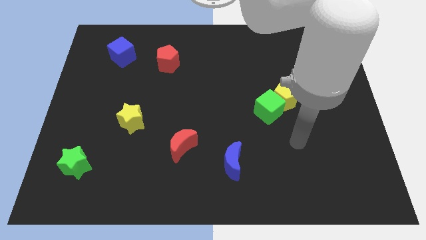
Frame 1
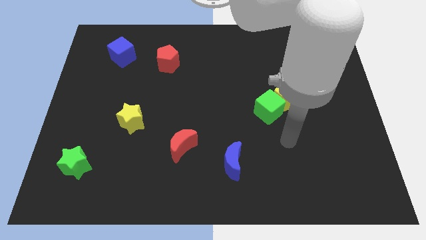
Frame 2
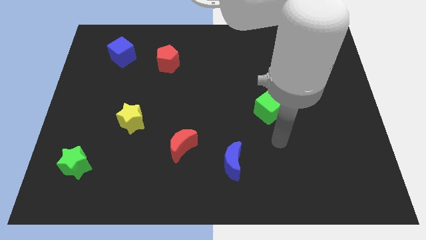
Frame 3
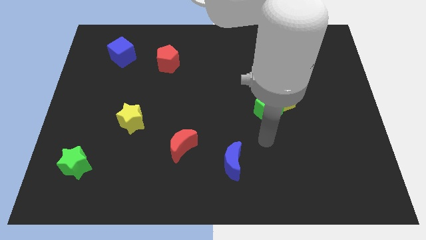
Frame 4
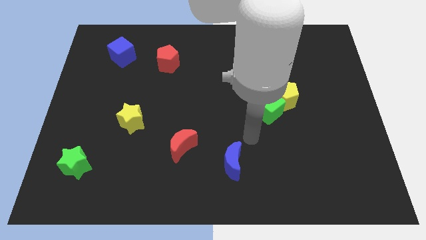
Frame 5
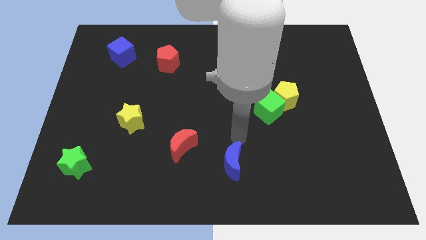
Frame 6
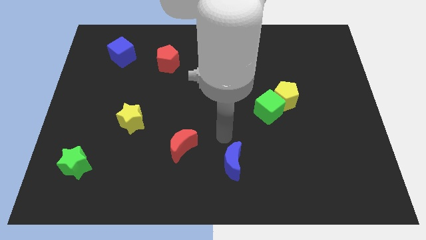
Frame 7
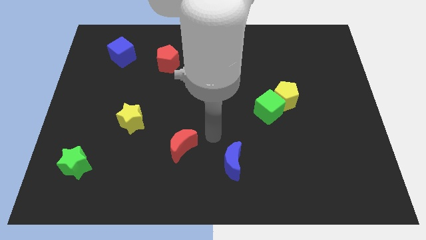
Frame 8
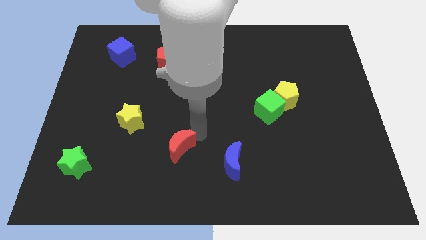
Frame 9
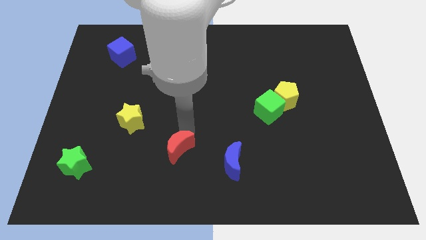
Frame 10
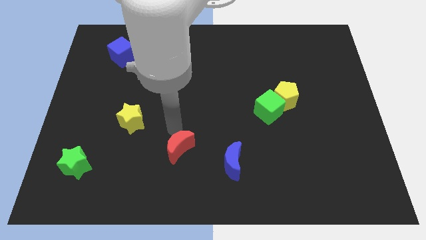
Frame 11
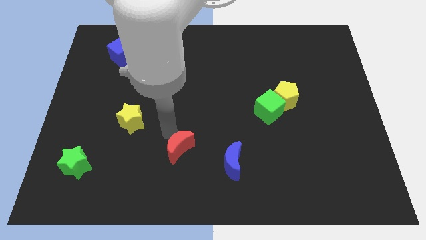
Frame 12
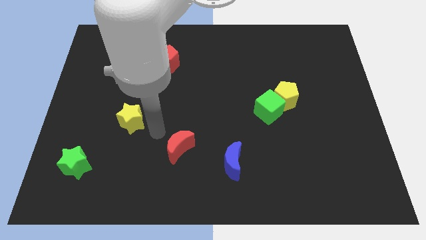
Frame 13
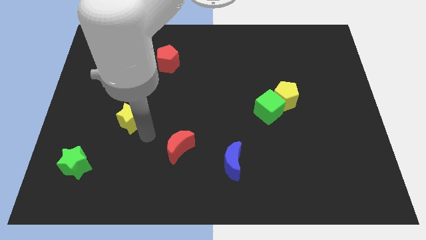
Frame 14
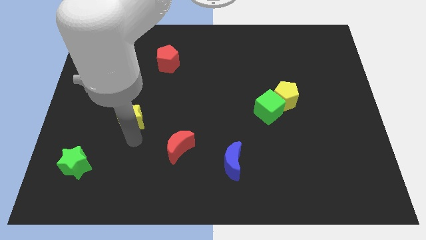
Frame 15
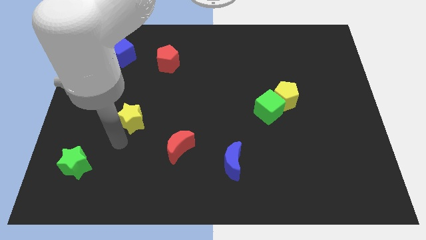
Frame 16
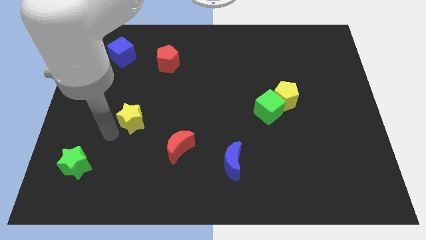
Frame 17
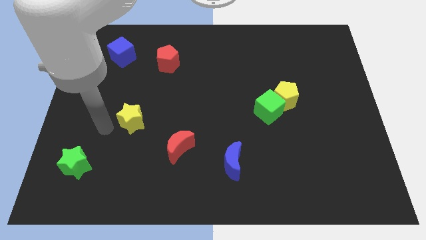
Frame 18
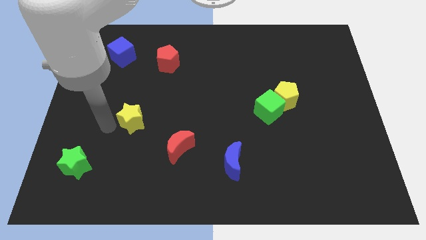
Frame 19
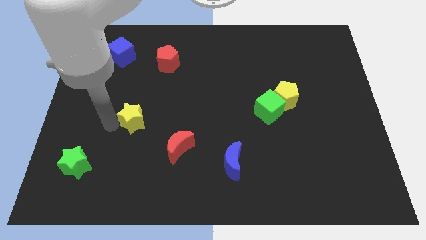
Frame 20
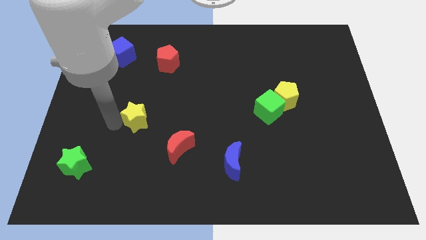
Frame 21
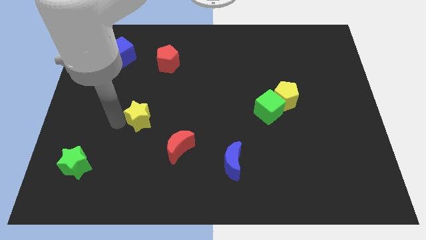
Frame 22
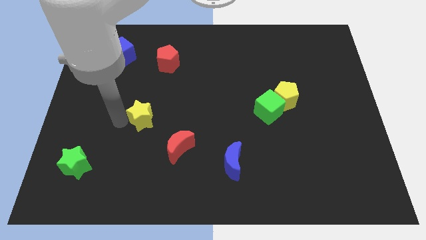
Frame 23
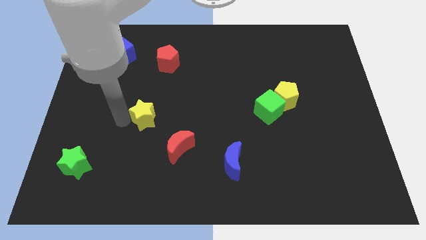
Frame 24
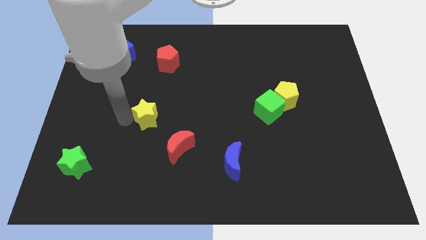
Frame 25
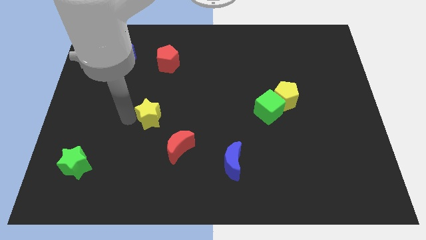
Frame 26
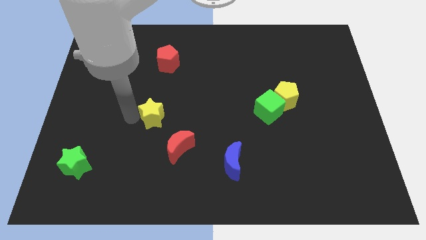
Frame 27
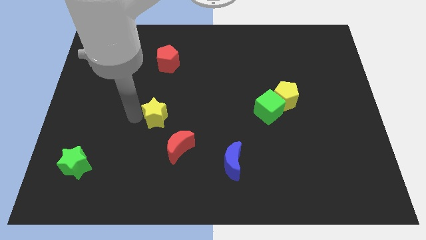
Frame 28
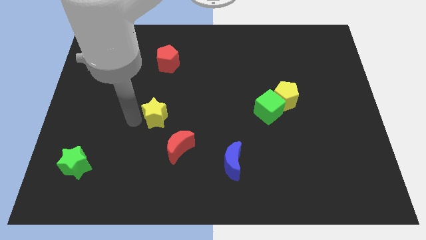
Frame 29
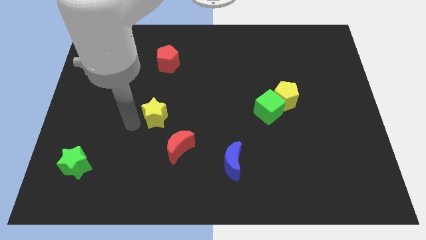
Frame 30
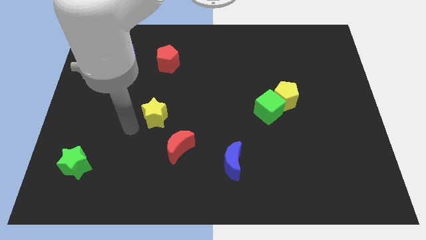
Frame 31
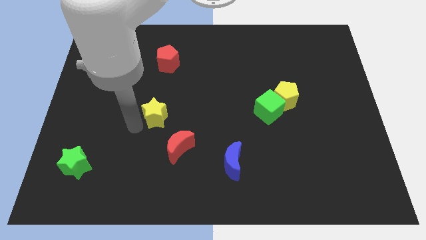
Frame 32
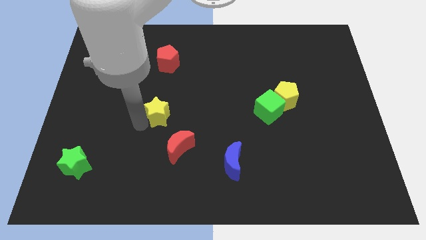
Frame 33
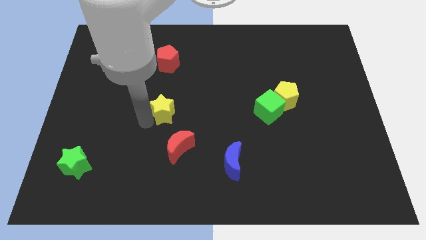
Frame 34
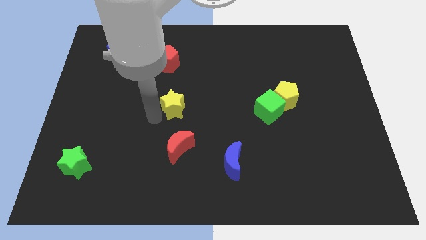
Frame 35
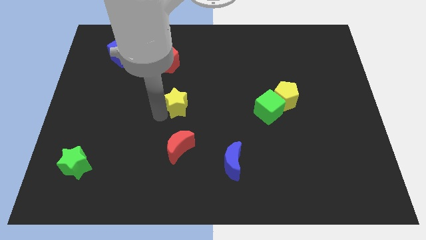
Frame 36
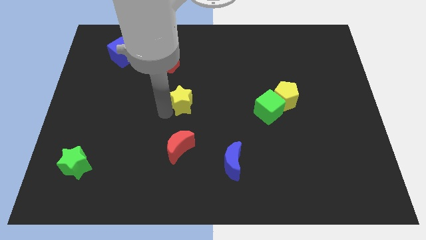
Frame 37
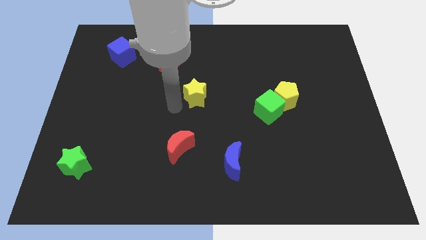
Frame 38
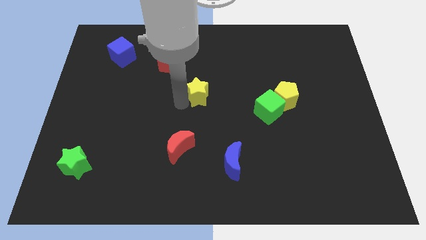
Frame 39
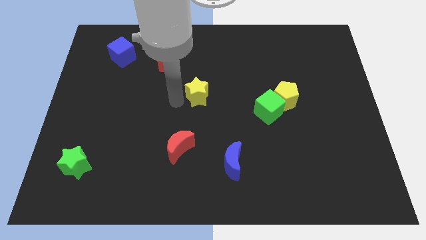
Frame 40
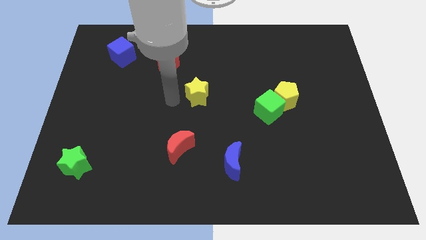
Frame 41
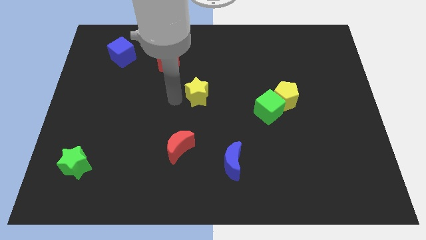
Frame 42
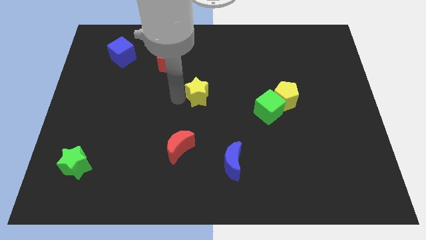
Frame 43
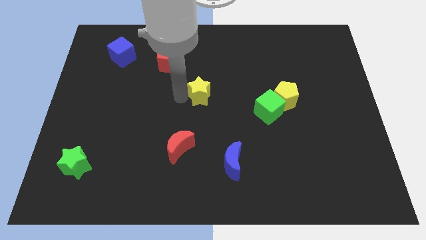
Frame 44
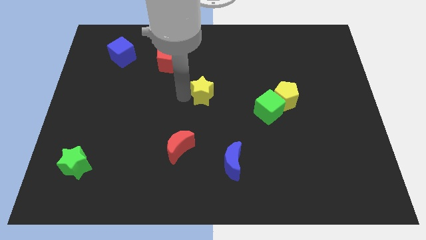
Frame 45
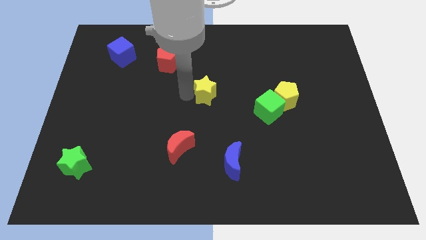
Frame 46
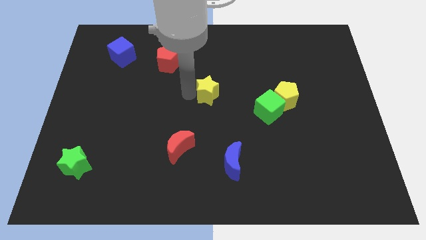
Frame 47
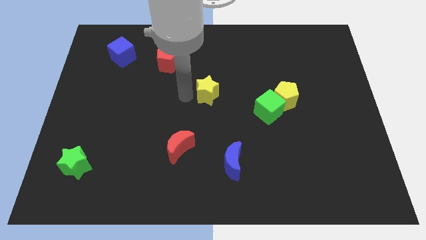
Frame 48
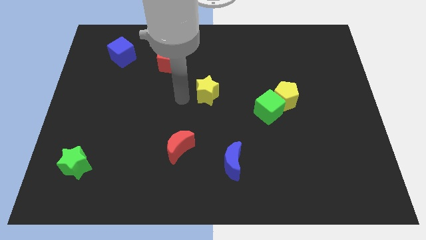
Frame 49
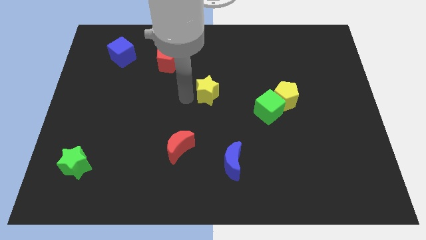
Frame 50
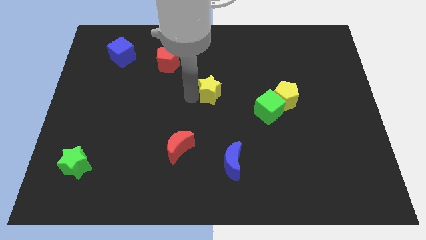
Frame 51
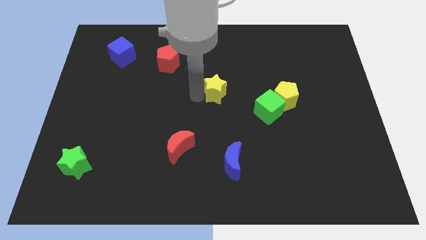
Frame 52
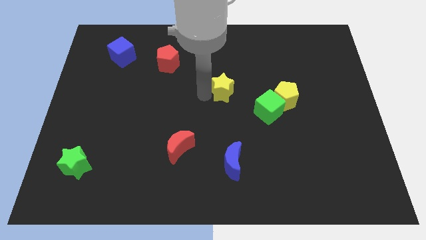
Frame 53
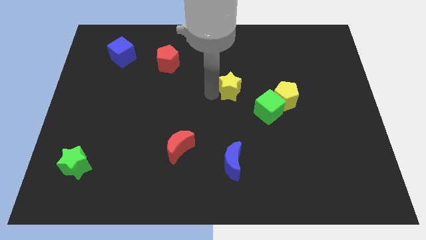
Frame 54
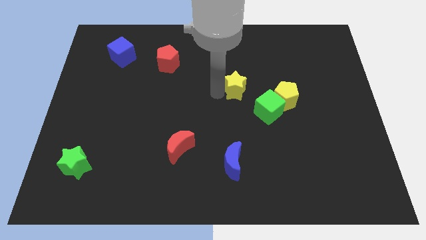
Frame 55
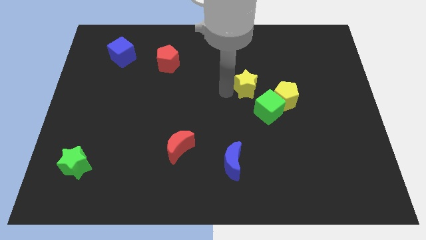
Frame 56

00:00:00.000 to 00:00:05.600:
push the yellow star to the top side of the green cube
